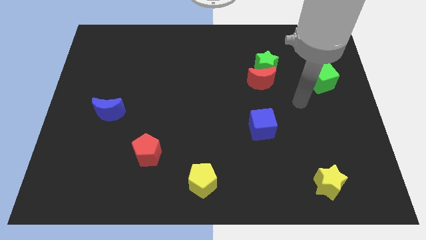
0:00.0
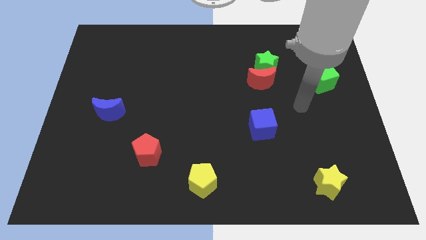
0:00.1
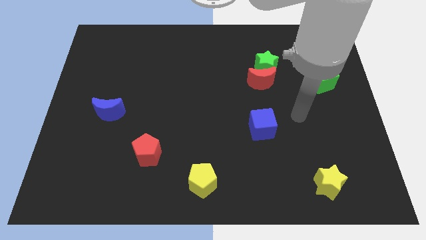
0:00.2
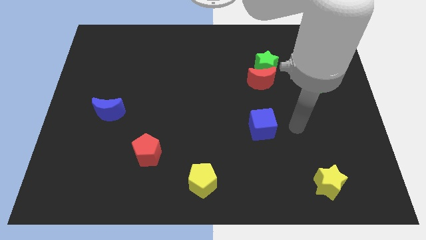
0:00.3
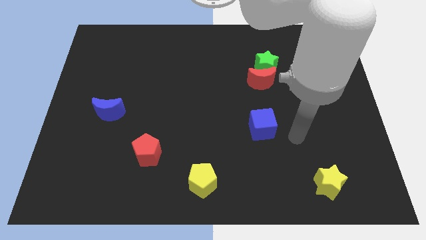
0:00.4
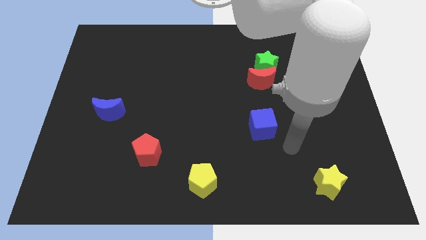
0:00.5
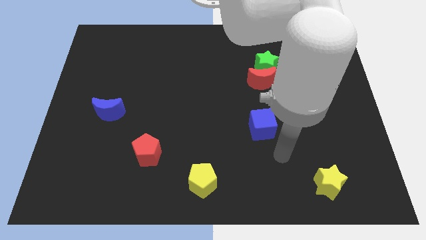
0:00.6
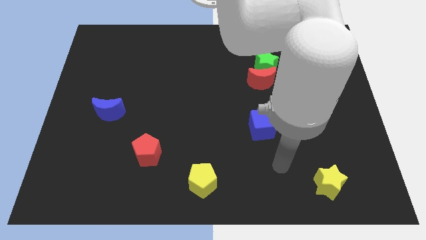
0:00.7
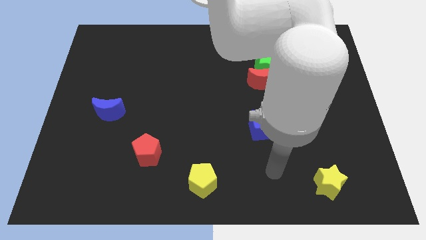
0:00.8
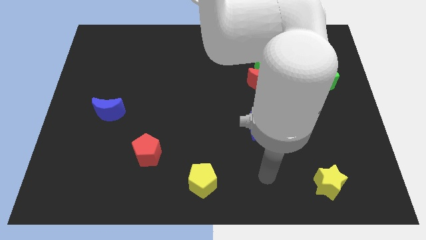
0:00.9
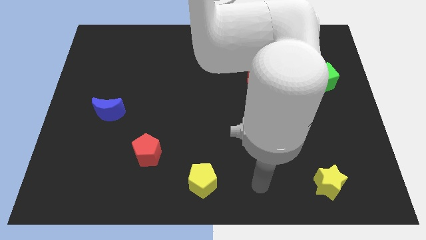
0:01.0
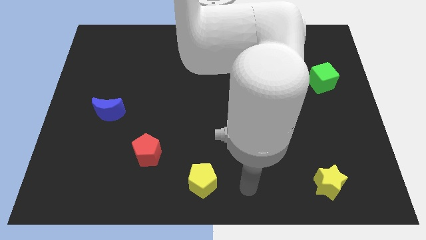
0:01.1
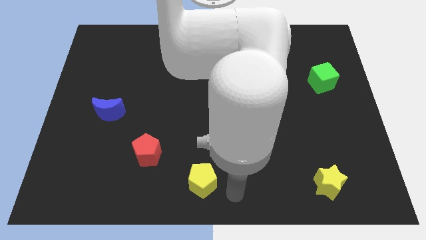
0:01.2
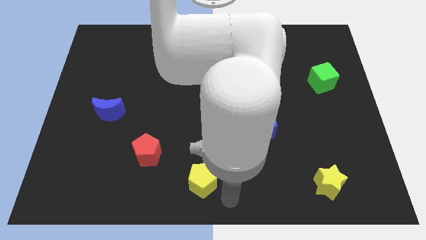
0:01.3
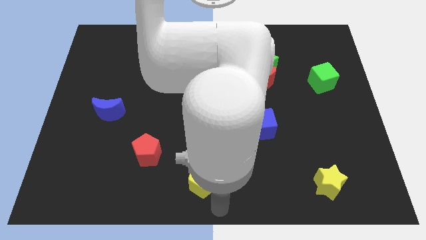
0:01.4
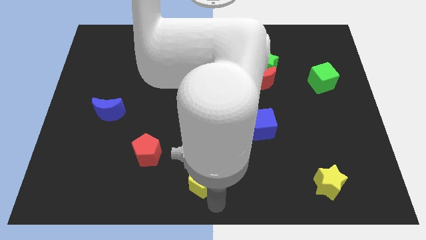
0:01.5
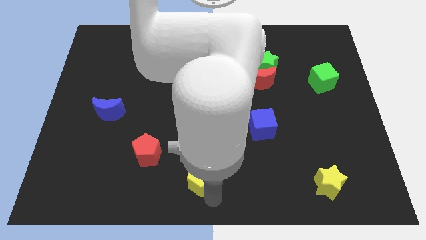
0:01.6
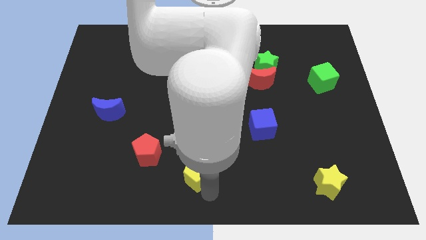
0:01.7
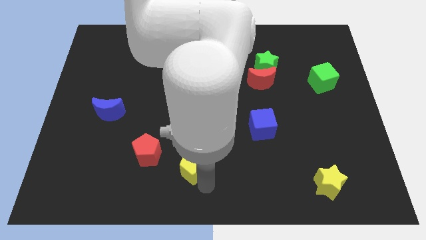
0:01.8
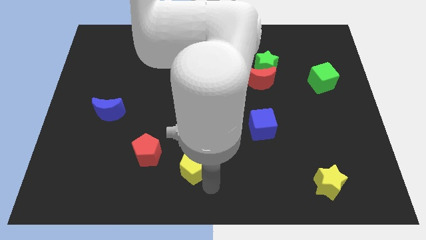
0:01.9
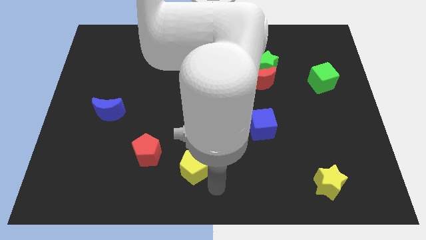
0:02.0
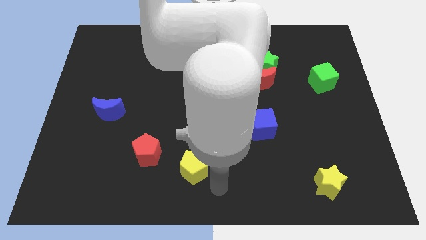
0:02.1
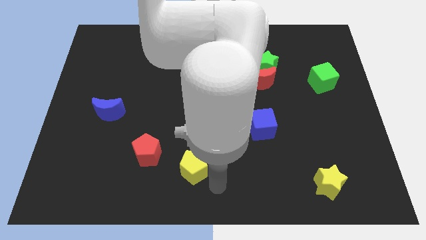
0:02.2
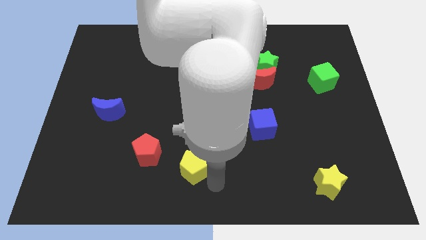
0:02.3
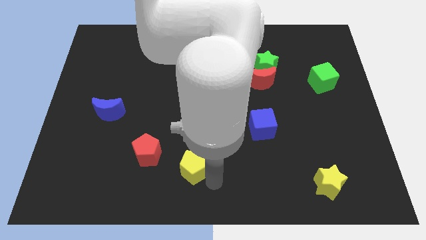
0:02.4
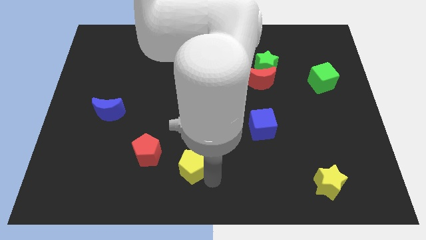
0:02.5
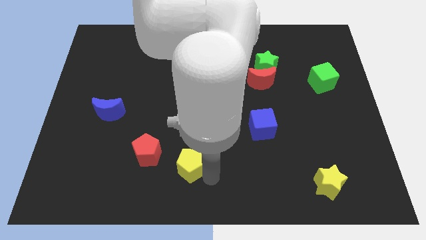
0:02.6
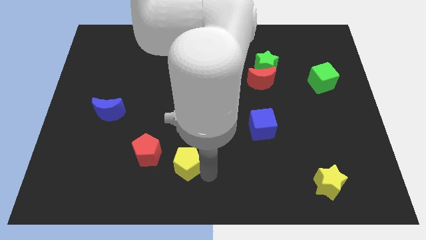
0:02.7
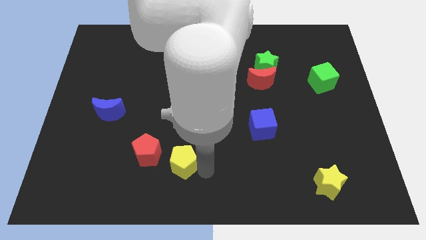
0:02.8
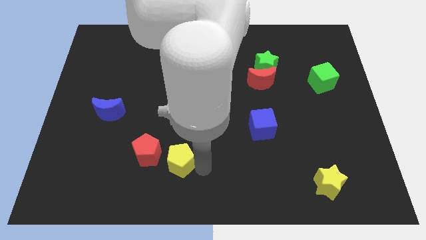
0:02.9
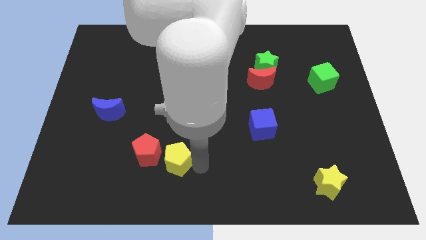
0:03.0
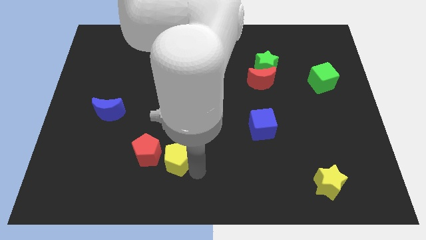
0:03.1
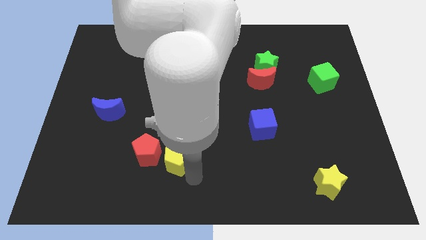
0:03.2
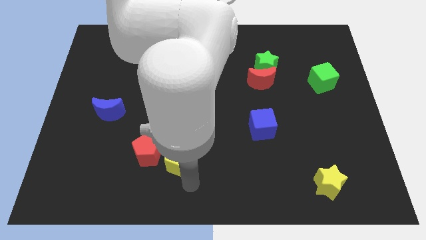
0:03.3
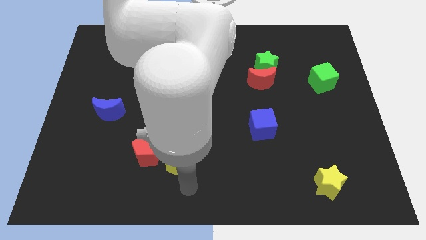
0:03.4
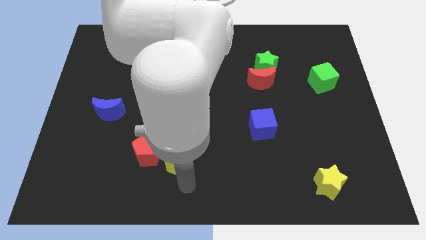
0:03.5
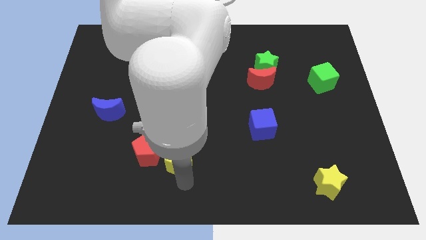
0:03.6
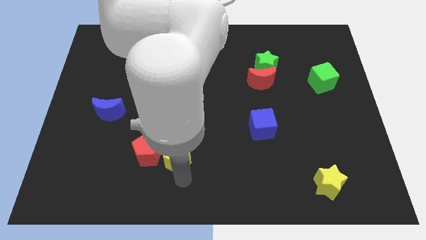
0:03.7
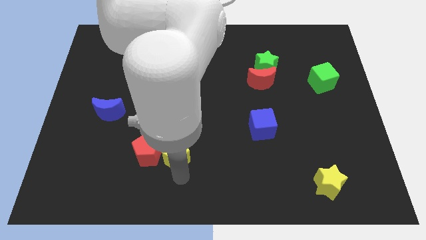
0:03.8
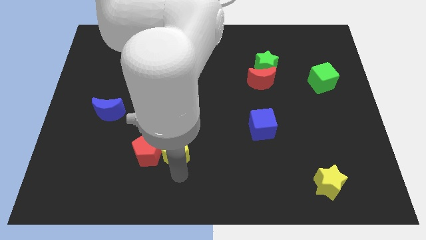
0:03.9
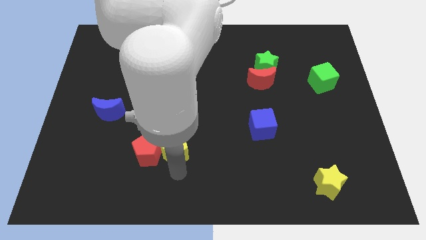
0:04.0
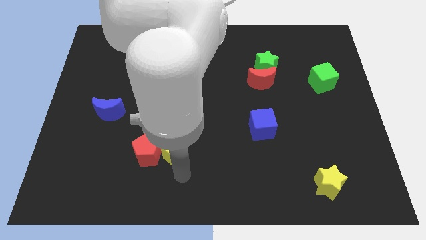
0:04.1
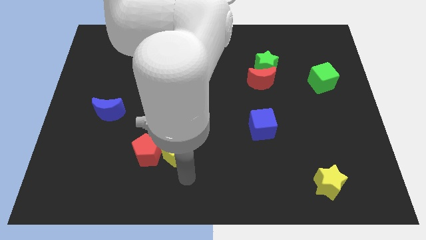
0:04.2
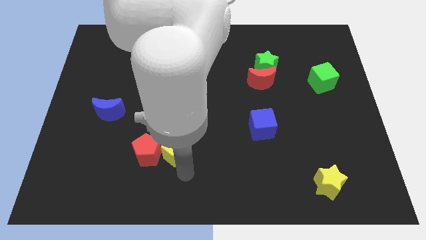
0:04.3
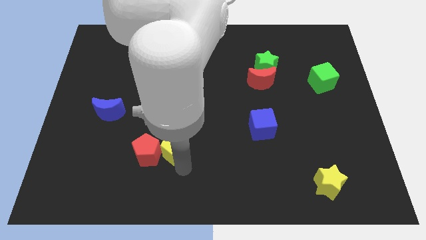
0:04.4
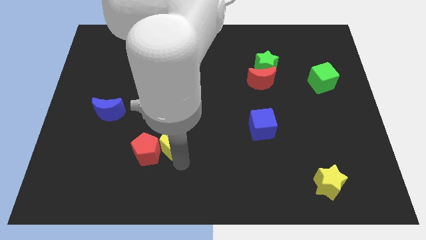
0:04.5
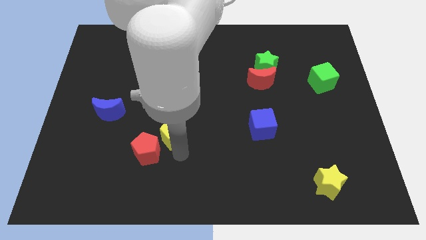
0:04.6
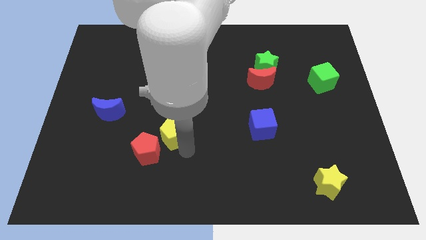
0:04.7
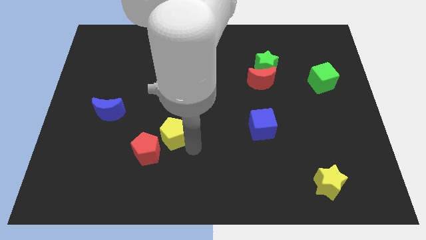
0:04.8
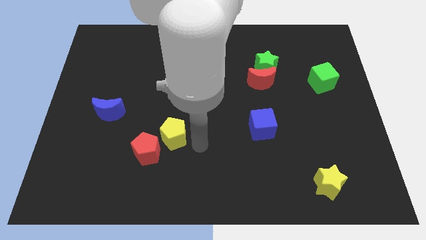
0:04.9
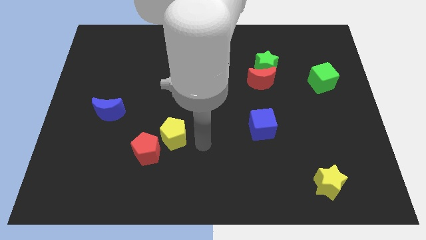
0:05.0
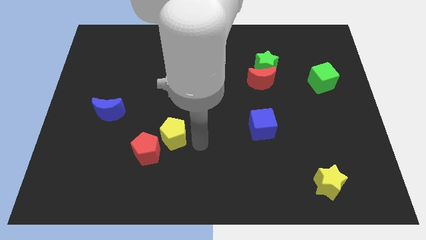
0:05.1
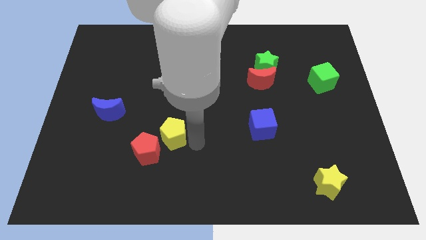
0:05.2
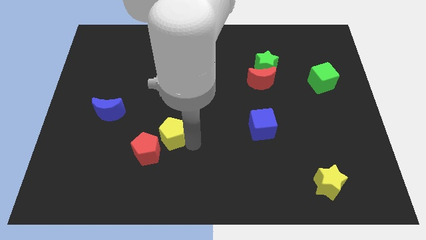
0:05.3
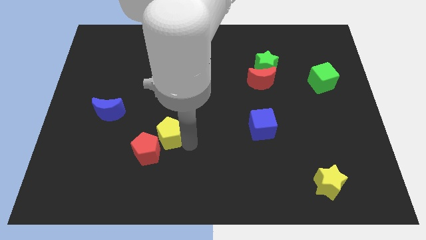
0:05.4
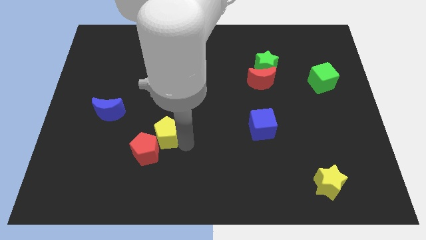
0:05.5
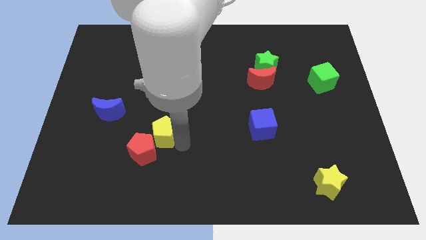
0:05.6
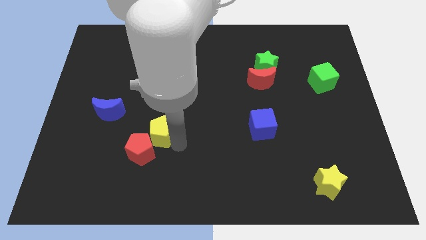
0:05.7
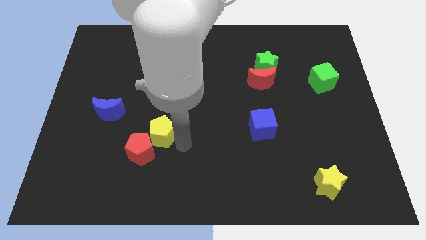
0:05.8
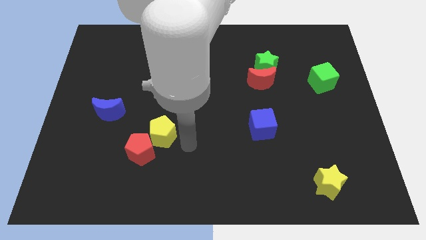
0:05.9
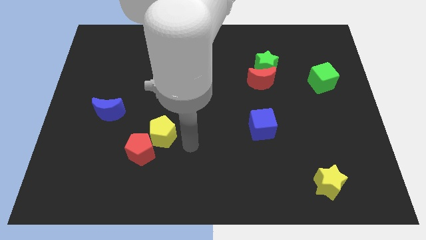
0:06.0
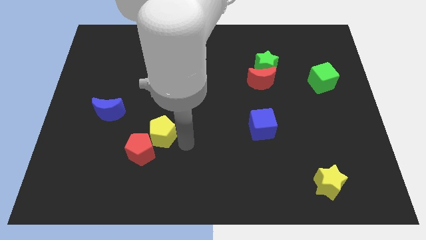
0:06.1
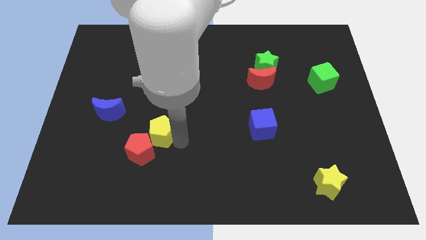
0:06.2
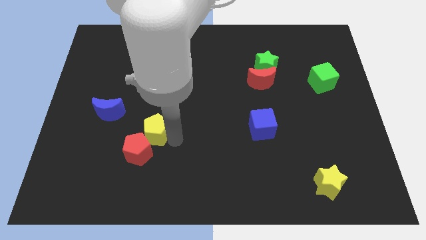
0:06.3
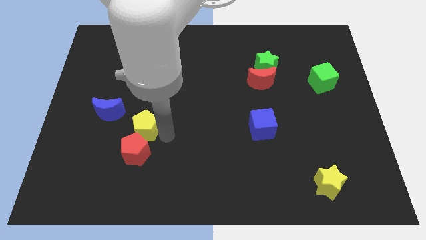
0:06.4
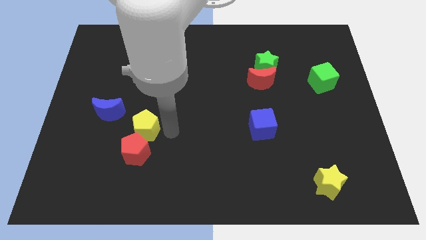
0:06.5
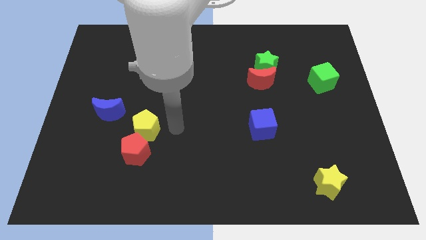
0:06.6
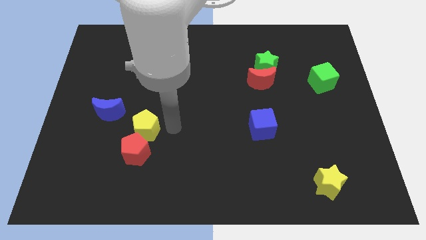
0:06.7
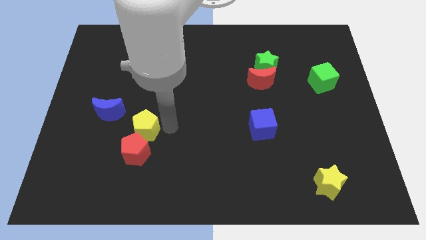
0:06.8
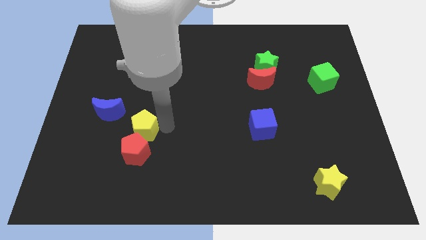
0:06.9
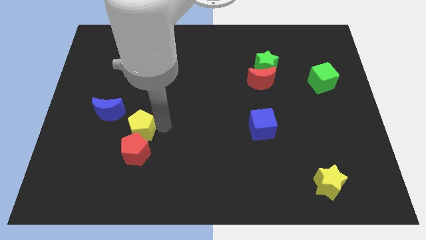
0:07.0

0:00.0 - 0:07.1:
put the yellow pentagon to the top left side of the red pentagon

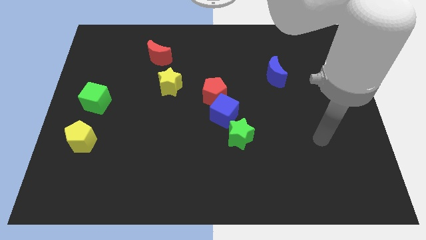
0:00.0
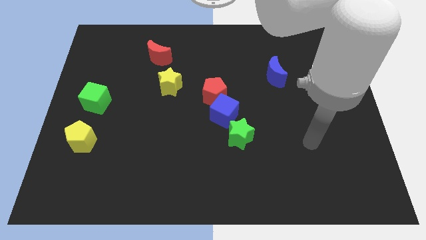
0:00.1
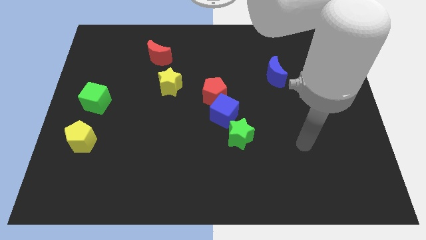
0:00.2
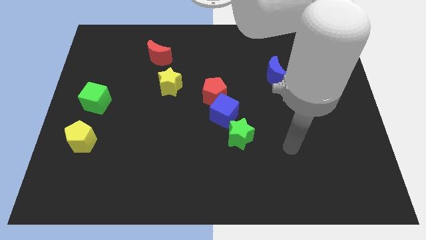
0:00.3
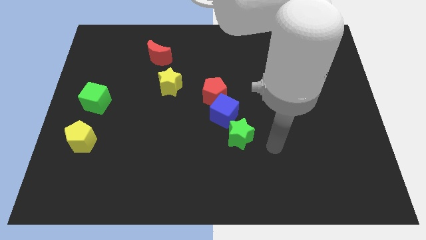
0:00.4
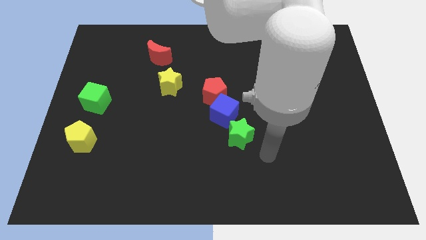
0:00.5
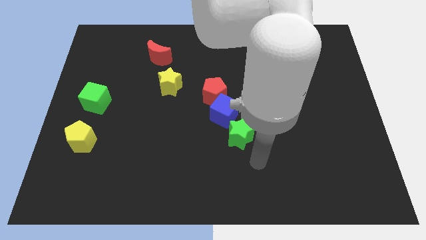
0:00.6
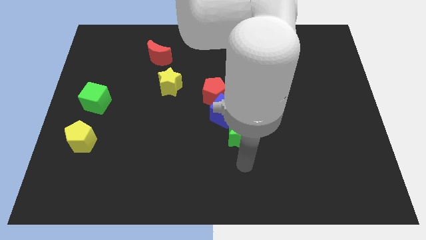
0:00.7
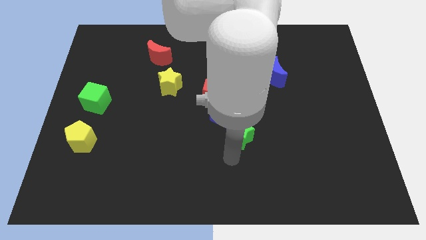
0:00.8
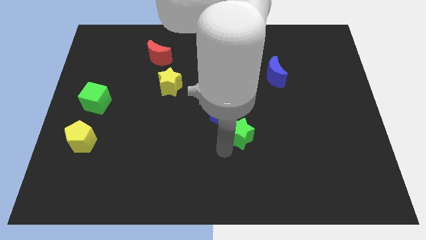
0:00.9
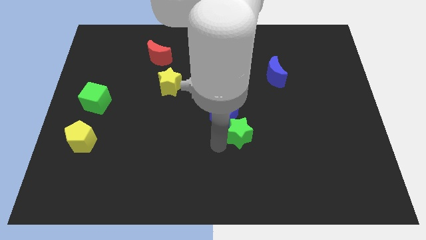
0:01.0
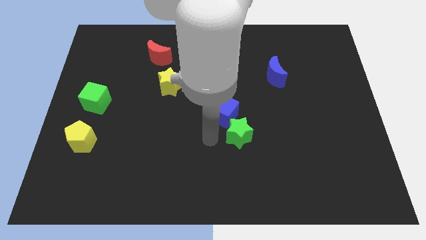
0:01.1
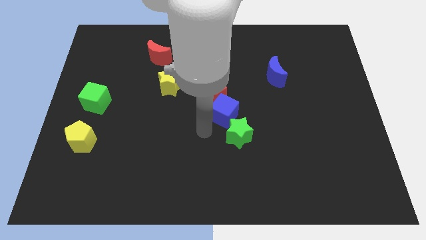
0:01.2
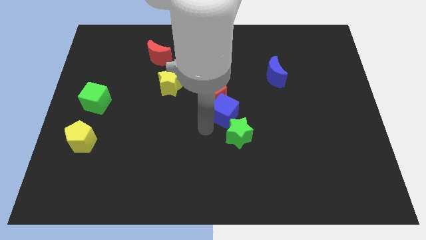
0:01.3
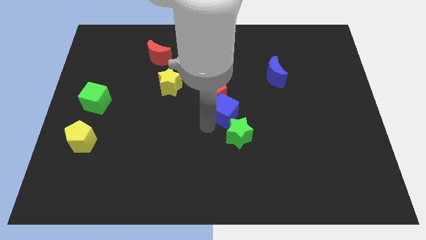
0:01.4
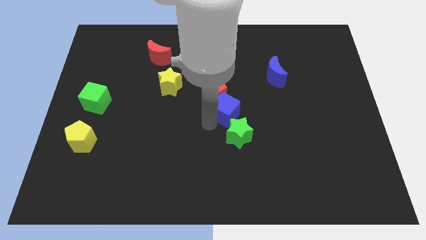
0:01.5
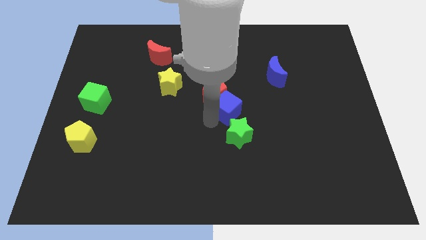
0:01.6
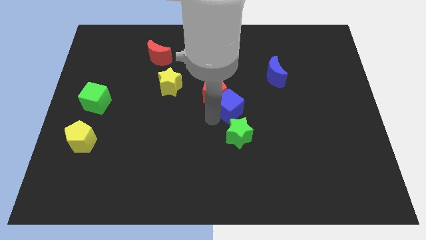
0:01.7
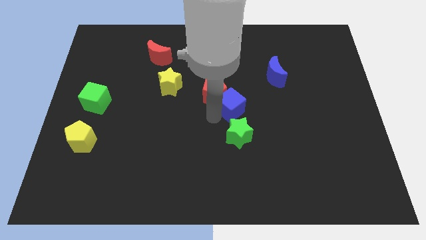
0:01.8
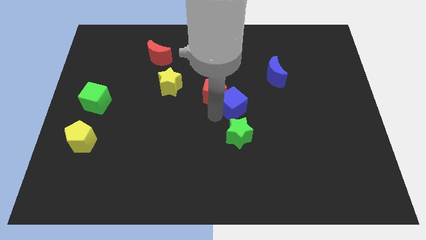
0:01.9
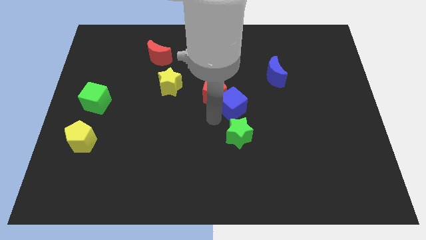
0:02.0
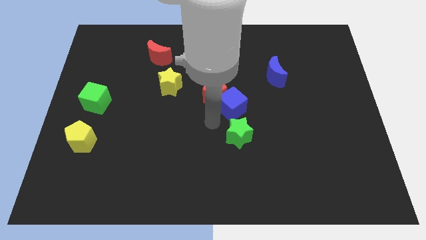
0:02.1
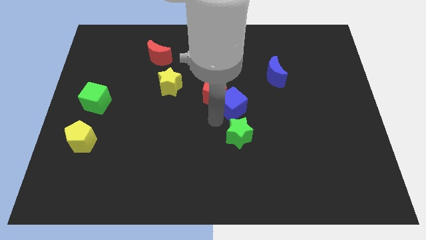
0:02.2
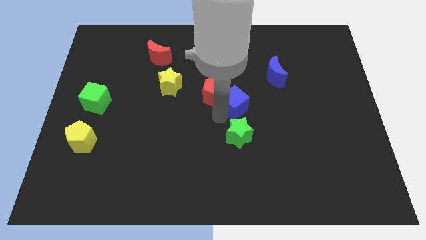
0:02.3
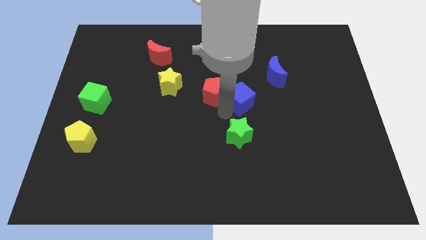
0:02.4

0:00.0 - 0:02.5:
push the blue cube diagonally down and to the left of the blue moon
